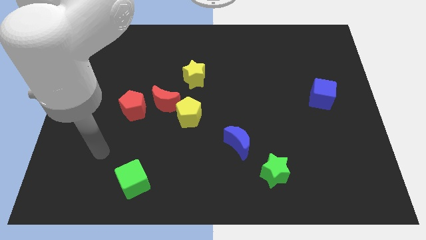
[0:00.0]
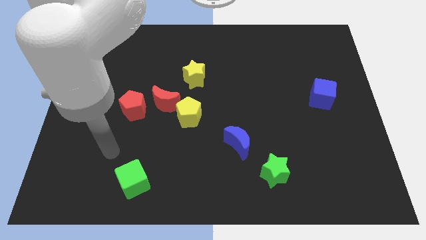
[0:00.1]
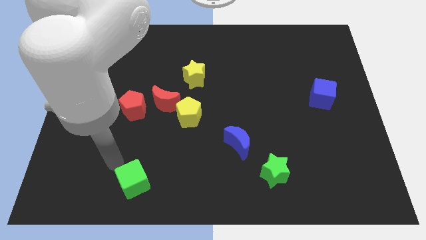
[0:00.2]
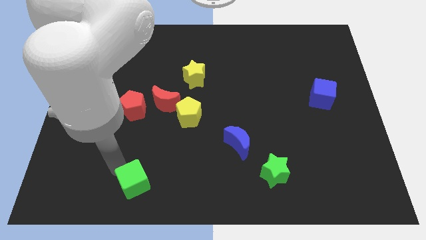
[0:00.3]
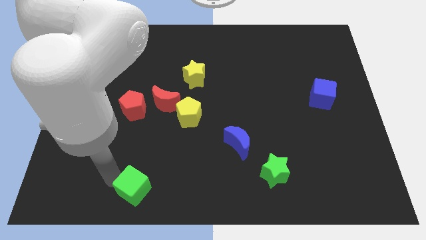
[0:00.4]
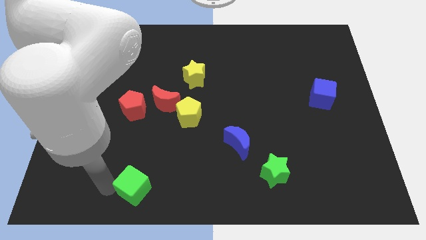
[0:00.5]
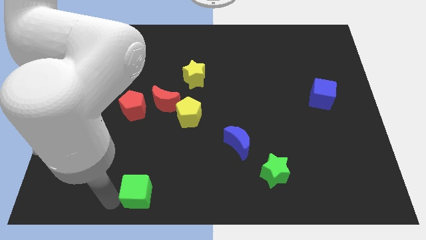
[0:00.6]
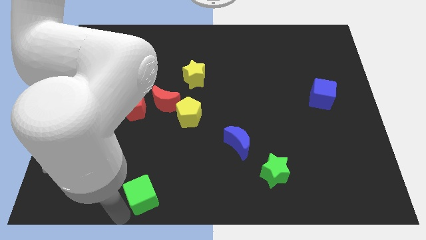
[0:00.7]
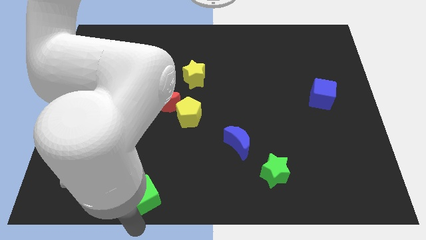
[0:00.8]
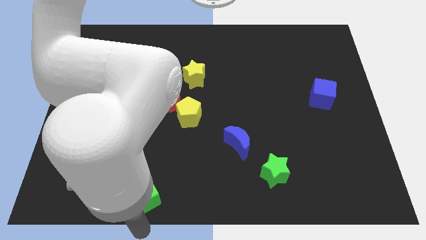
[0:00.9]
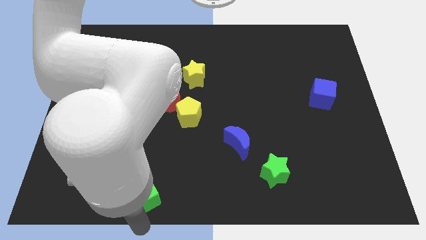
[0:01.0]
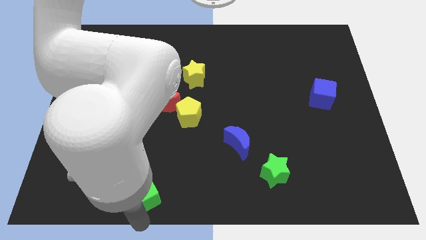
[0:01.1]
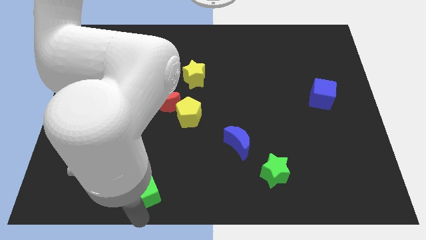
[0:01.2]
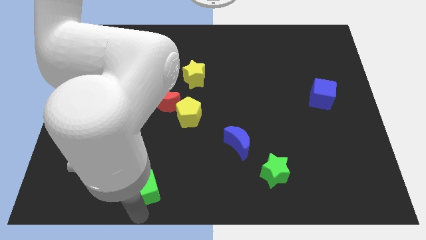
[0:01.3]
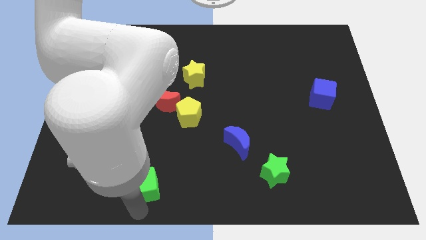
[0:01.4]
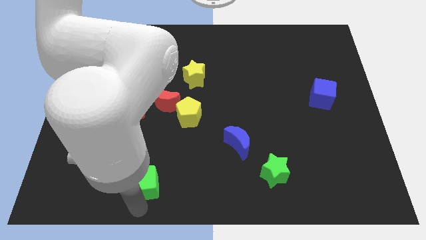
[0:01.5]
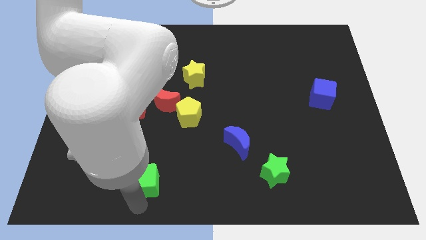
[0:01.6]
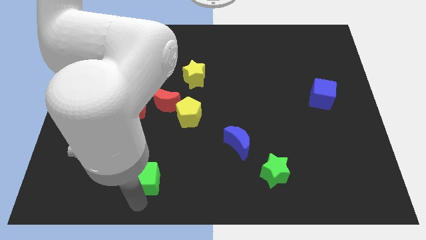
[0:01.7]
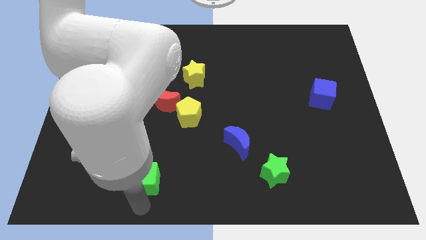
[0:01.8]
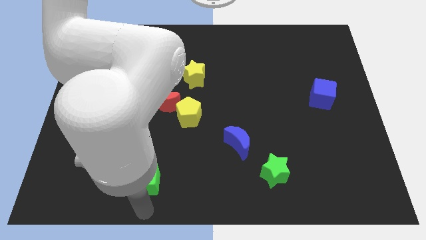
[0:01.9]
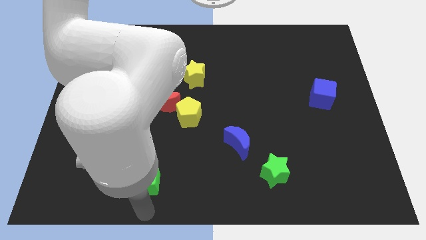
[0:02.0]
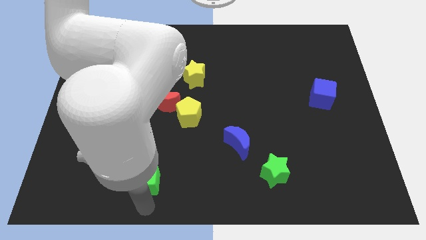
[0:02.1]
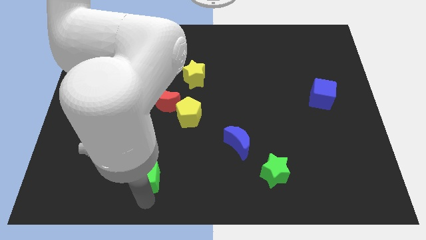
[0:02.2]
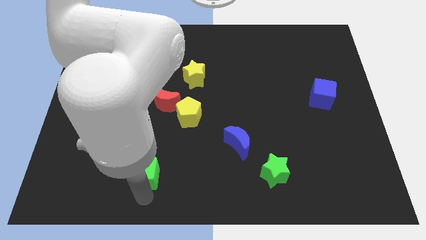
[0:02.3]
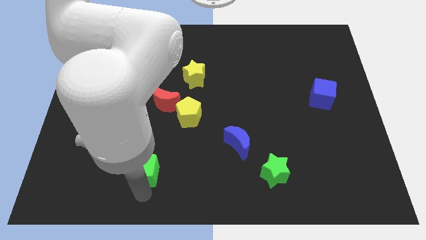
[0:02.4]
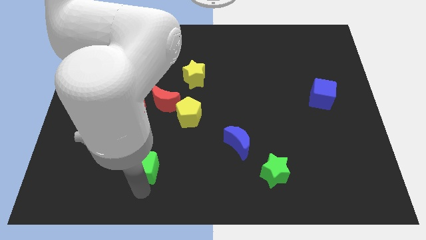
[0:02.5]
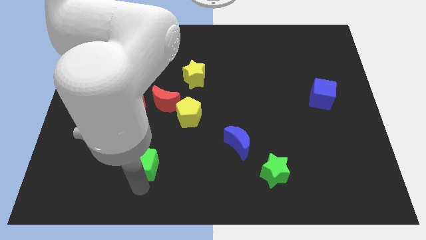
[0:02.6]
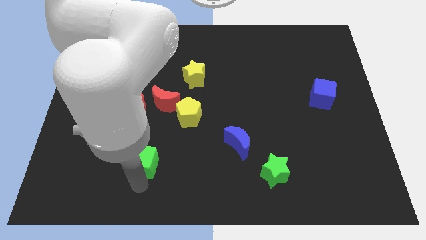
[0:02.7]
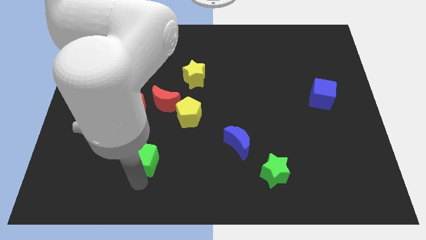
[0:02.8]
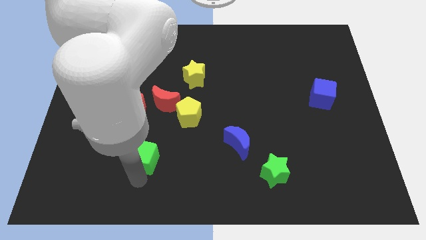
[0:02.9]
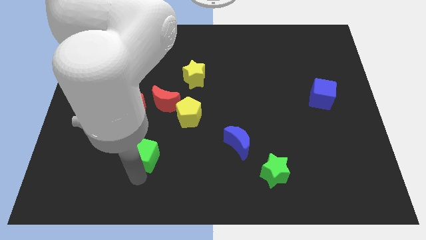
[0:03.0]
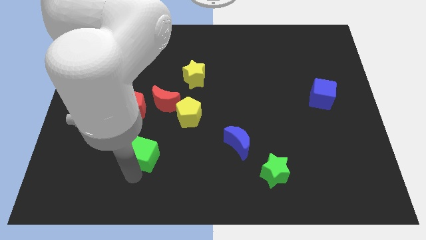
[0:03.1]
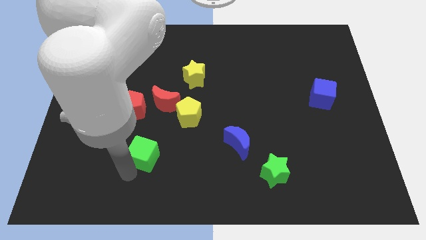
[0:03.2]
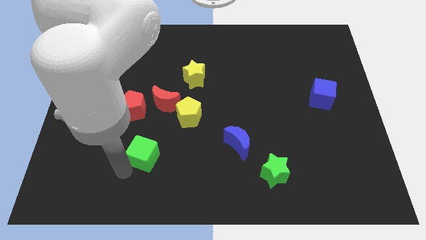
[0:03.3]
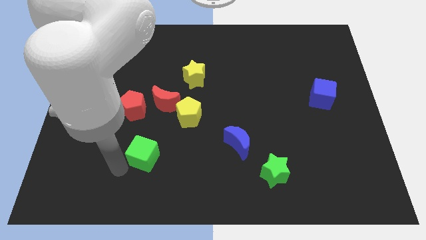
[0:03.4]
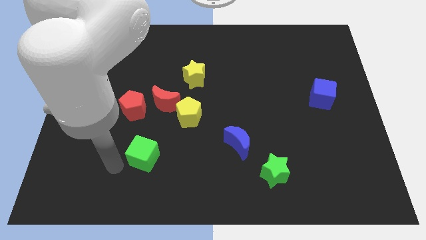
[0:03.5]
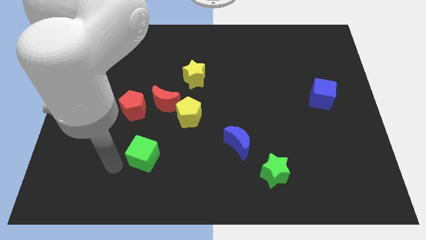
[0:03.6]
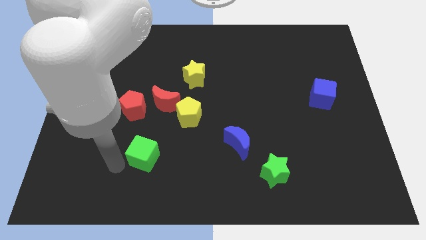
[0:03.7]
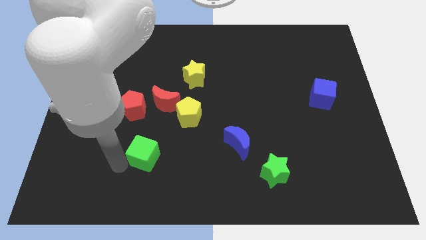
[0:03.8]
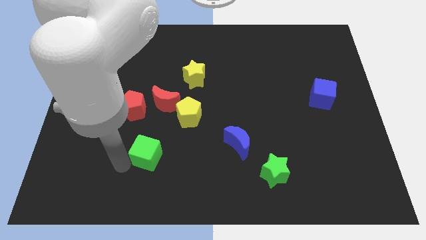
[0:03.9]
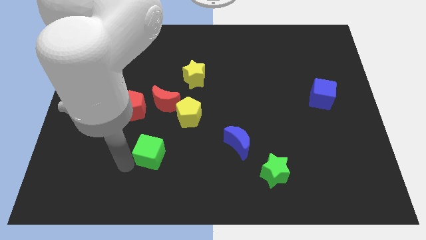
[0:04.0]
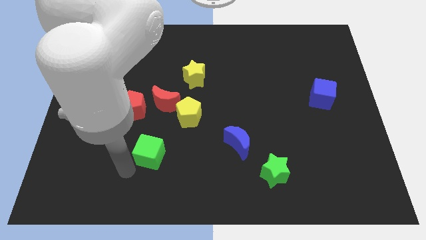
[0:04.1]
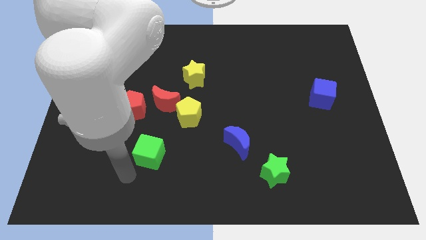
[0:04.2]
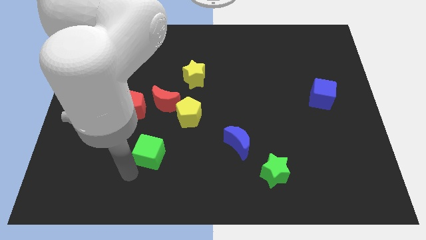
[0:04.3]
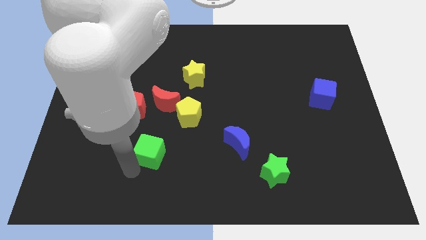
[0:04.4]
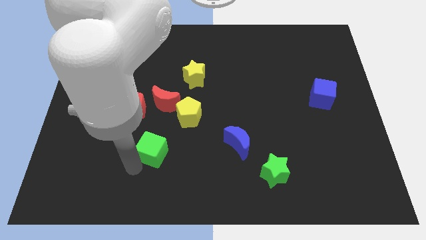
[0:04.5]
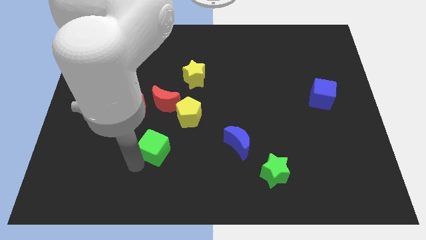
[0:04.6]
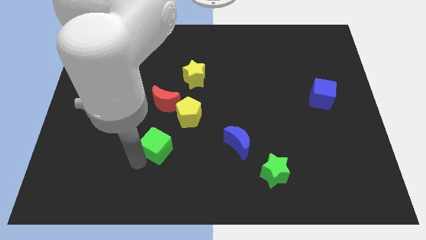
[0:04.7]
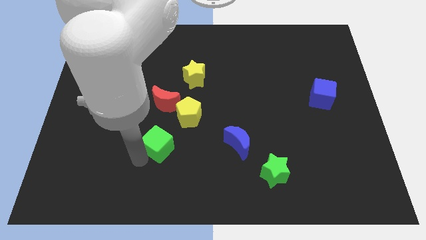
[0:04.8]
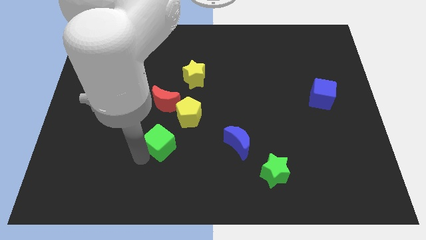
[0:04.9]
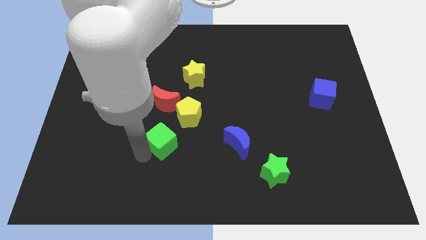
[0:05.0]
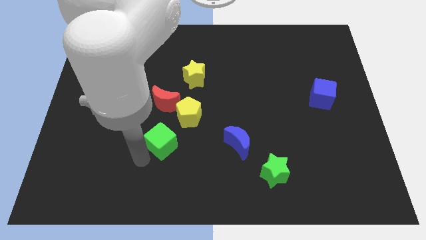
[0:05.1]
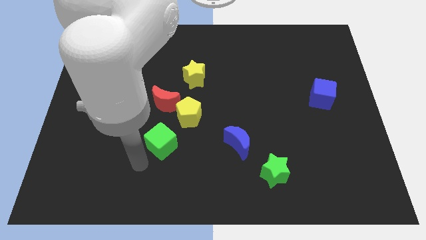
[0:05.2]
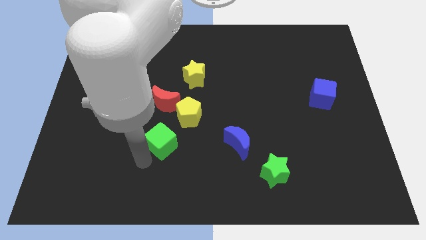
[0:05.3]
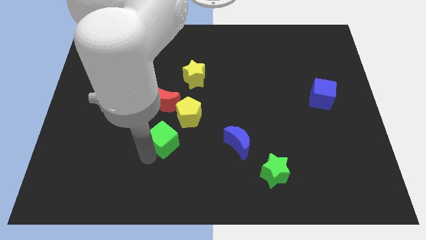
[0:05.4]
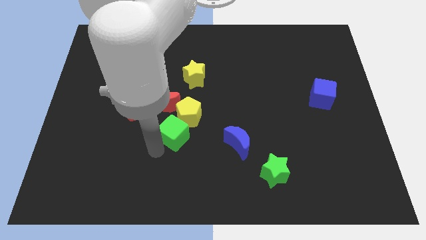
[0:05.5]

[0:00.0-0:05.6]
slide the green cube next to the yellow pentagon

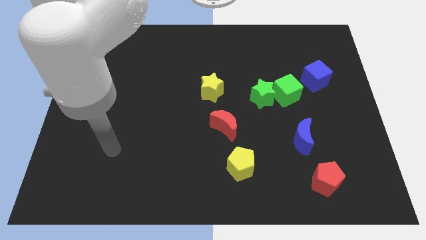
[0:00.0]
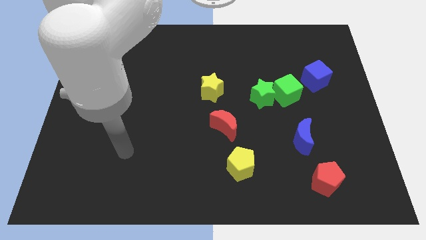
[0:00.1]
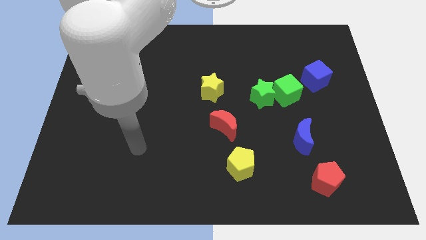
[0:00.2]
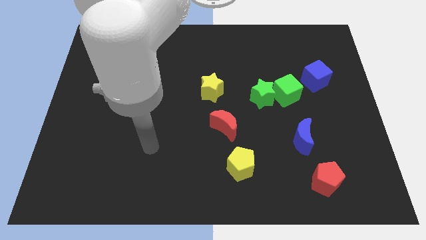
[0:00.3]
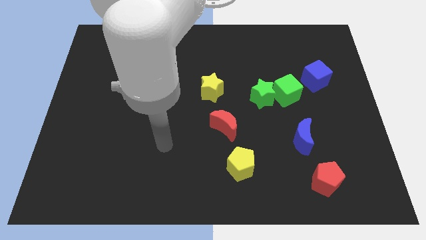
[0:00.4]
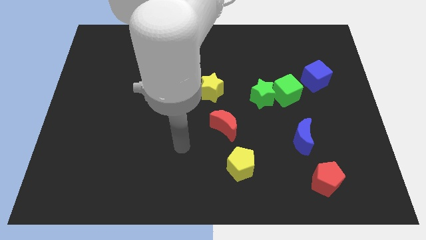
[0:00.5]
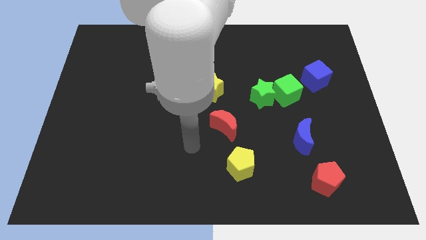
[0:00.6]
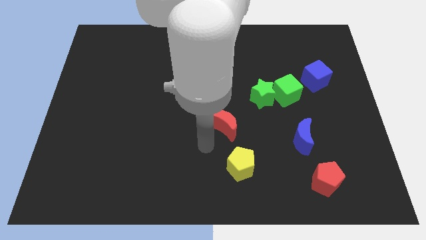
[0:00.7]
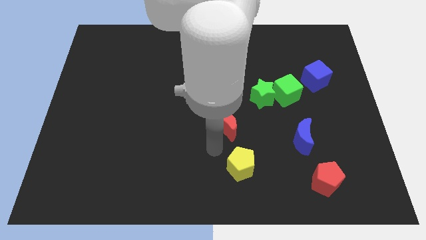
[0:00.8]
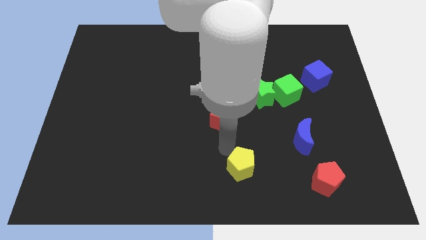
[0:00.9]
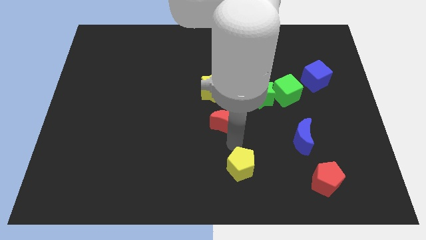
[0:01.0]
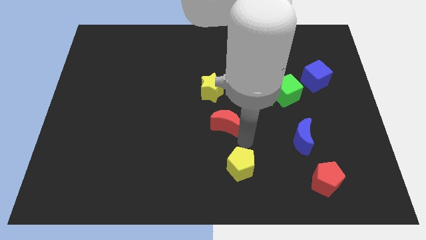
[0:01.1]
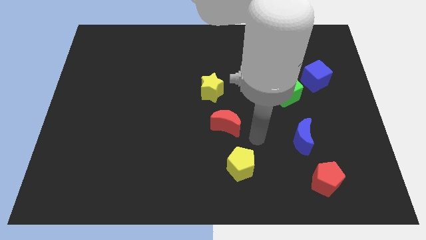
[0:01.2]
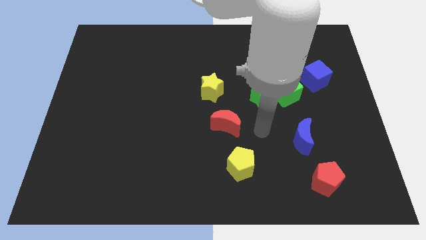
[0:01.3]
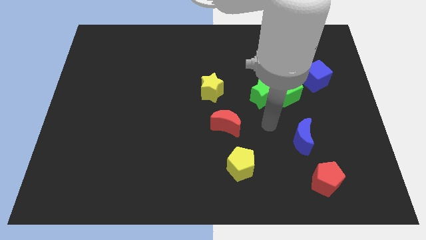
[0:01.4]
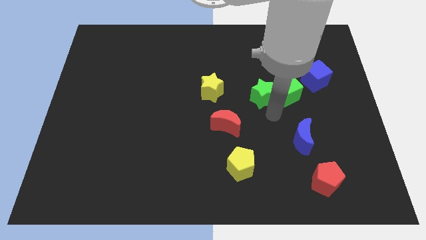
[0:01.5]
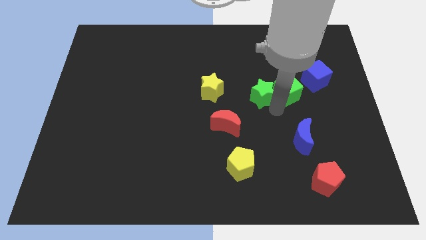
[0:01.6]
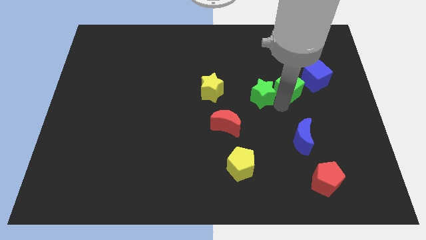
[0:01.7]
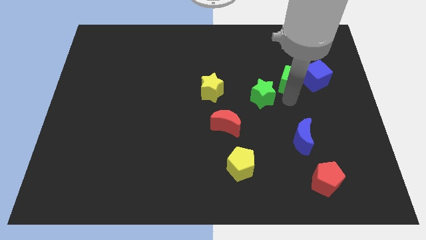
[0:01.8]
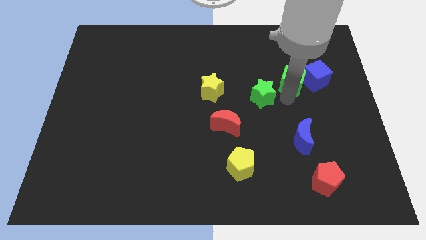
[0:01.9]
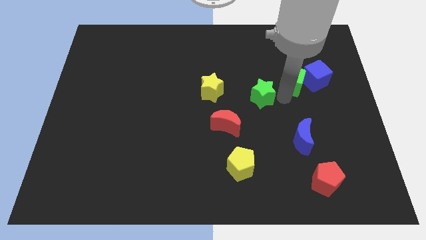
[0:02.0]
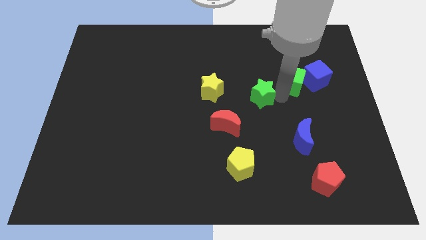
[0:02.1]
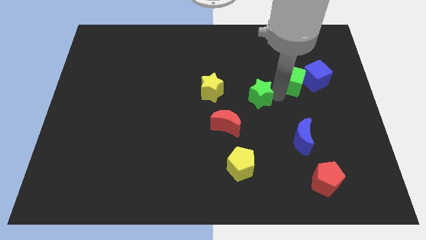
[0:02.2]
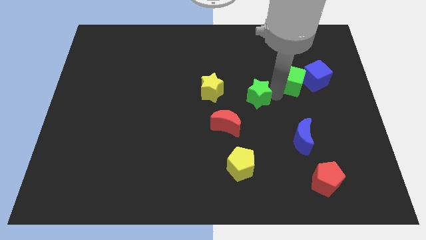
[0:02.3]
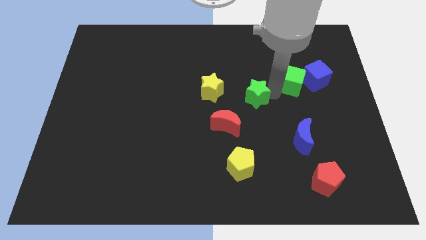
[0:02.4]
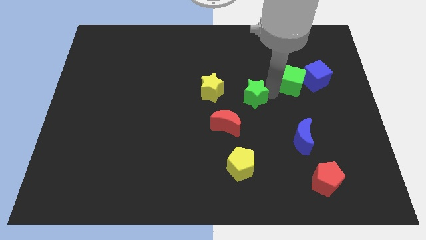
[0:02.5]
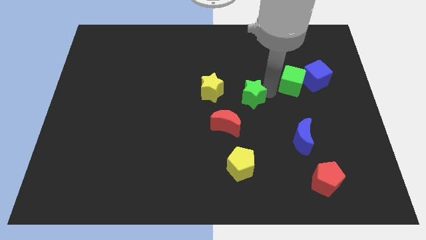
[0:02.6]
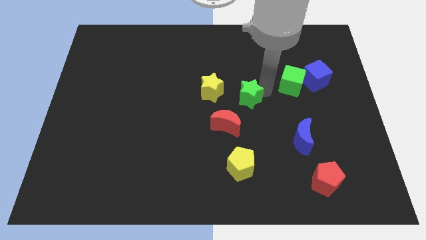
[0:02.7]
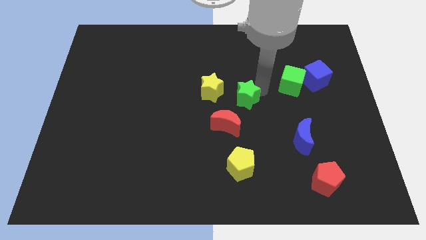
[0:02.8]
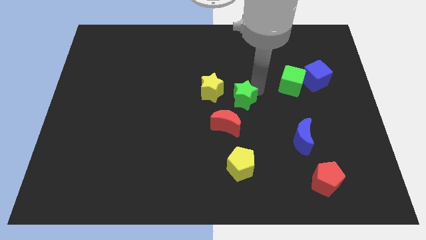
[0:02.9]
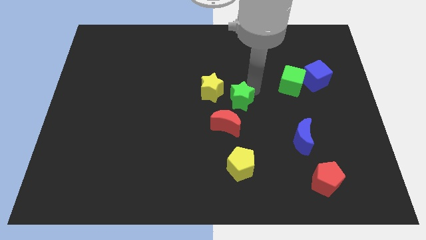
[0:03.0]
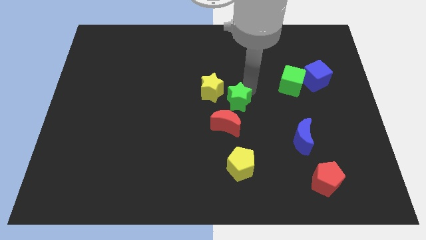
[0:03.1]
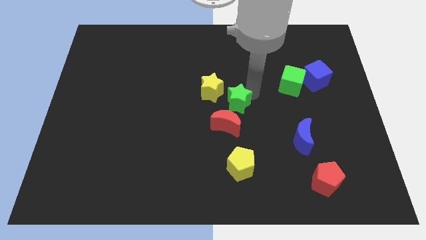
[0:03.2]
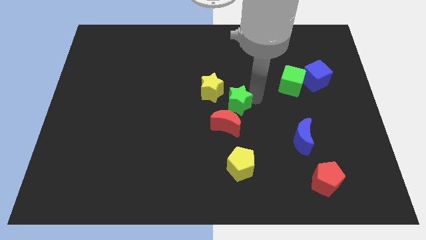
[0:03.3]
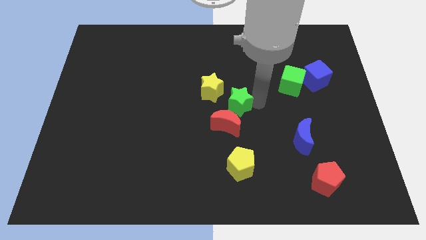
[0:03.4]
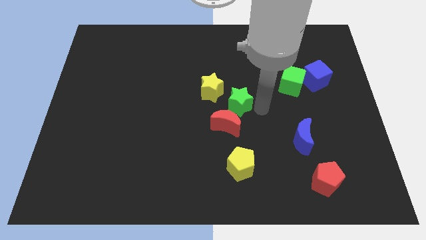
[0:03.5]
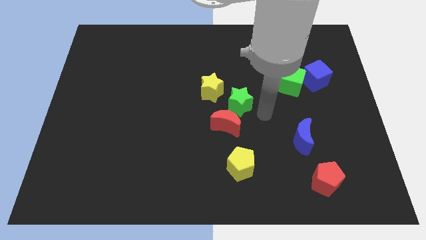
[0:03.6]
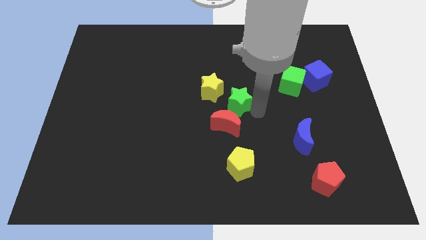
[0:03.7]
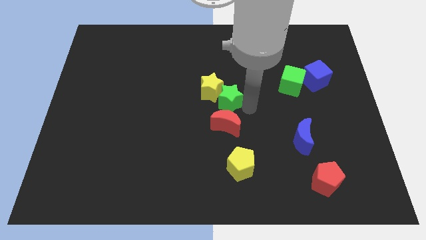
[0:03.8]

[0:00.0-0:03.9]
slide the green star next to the yellow star
